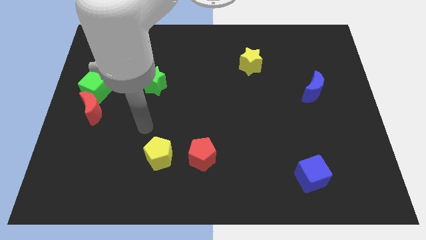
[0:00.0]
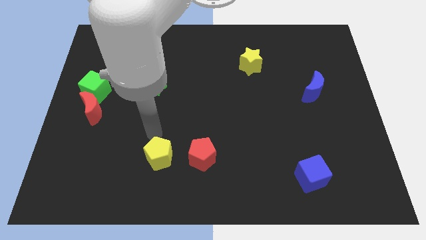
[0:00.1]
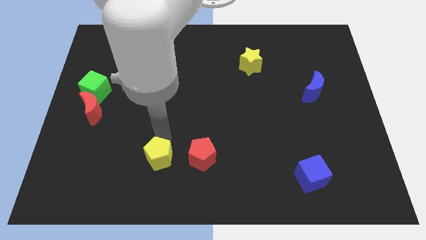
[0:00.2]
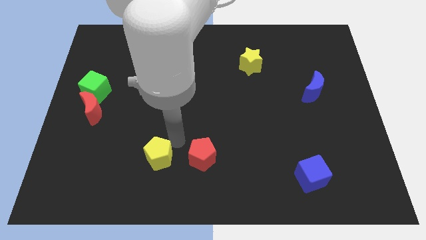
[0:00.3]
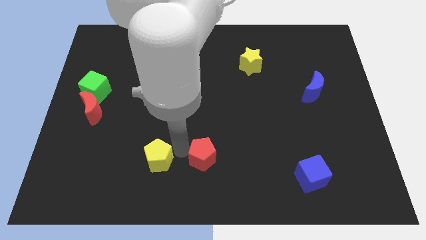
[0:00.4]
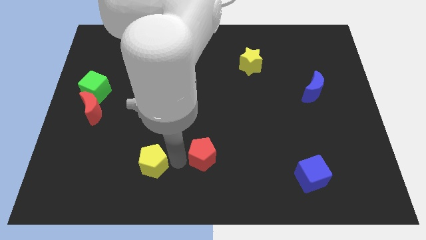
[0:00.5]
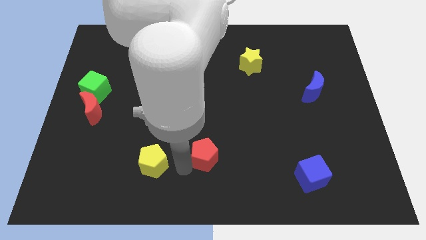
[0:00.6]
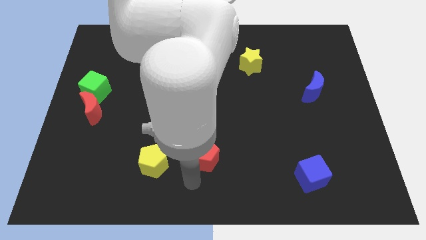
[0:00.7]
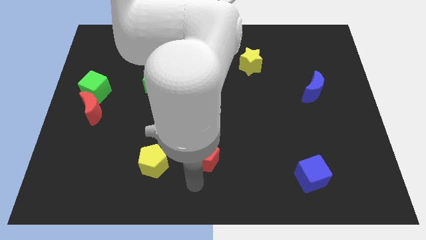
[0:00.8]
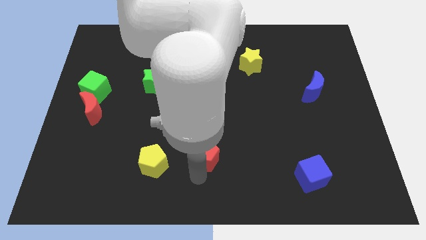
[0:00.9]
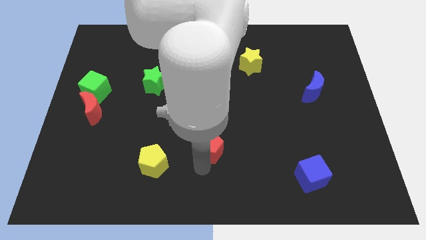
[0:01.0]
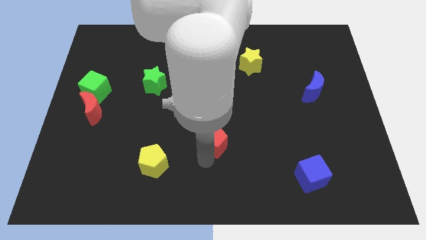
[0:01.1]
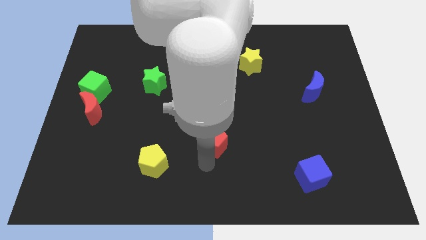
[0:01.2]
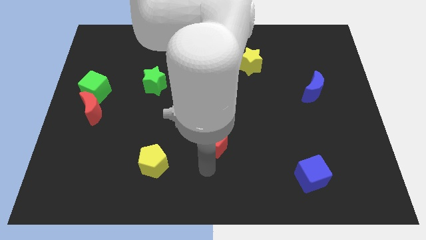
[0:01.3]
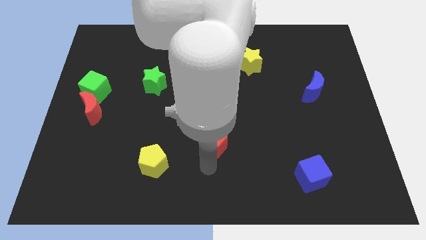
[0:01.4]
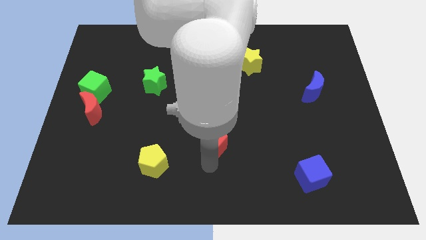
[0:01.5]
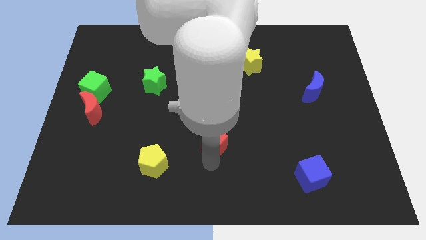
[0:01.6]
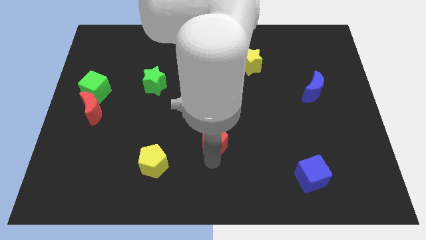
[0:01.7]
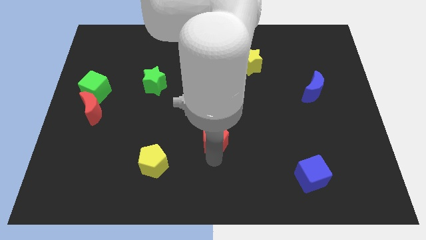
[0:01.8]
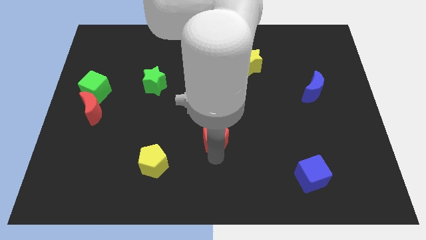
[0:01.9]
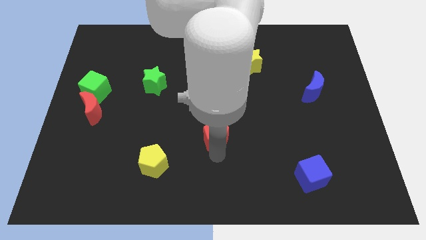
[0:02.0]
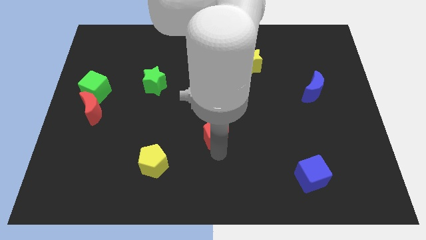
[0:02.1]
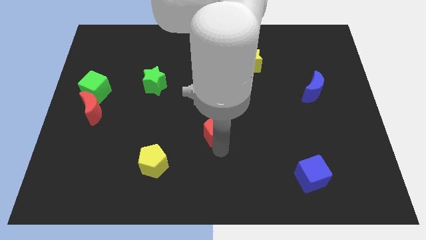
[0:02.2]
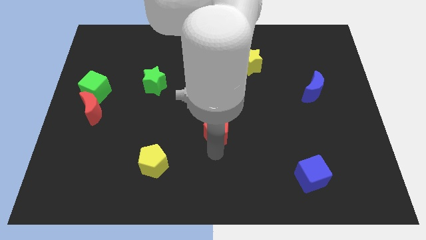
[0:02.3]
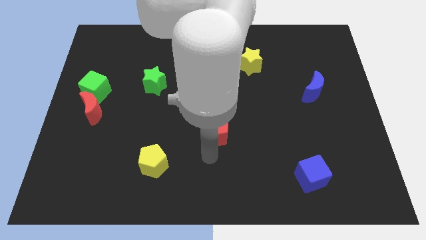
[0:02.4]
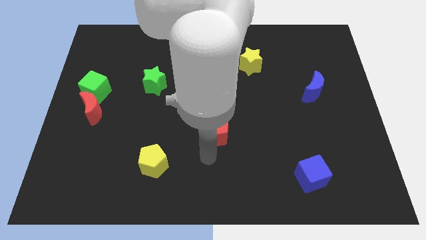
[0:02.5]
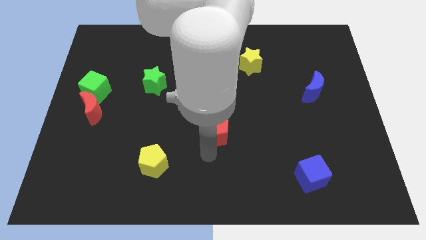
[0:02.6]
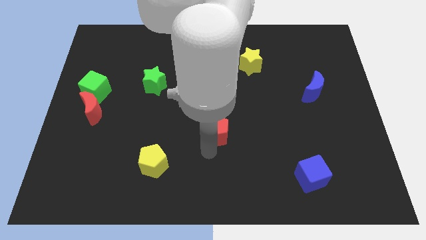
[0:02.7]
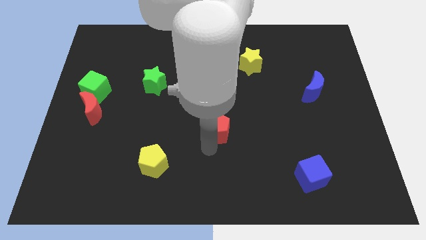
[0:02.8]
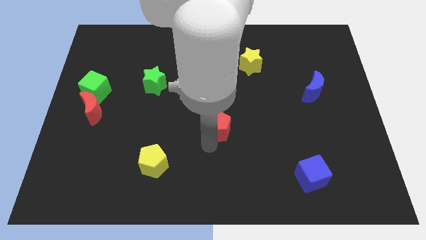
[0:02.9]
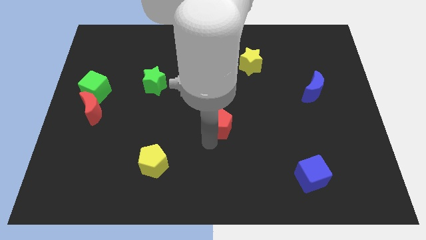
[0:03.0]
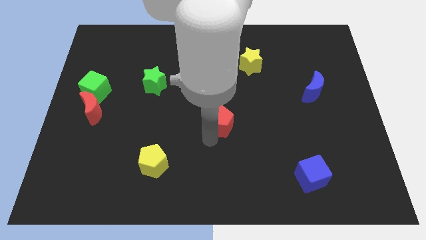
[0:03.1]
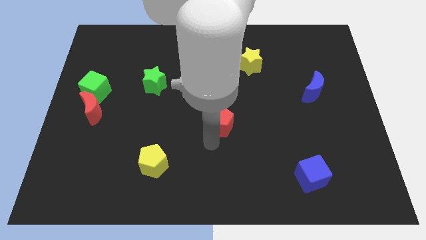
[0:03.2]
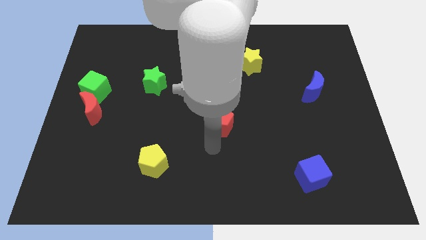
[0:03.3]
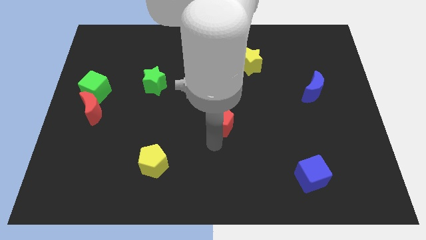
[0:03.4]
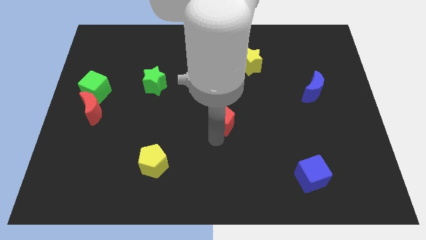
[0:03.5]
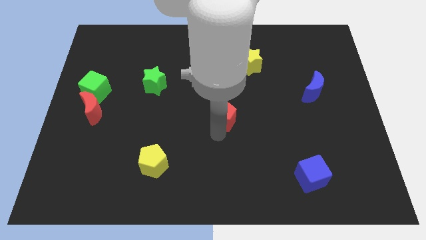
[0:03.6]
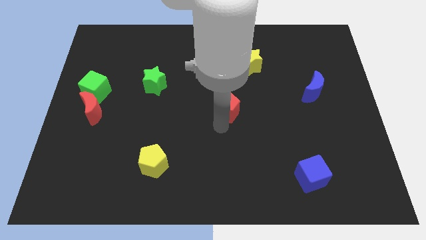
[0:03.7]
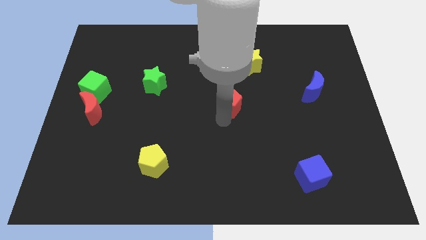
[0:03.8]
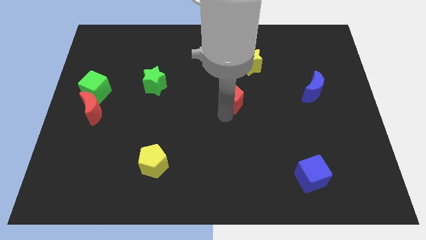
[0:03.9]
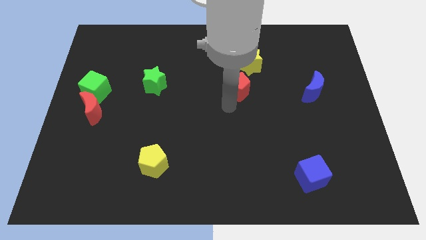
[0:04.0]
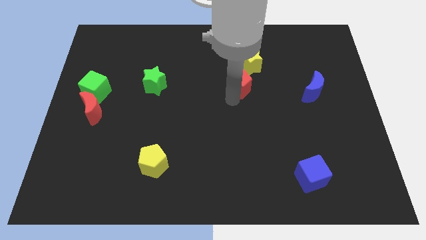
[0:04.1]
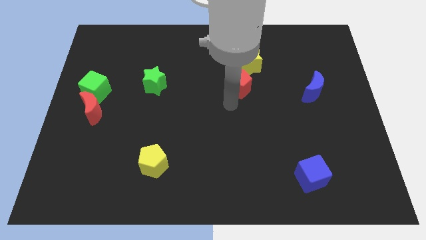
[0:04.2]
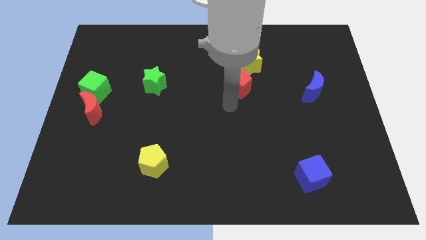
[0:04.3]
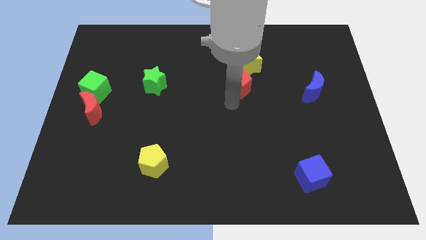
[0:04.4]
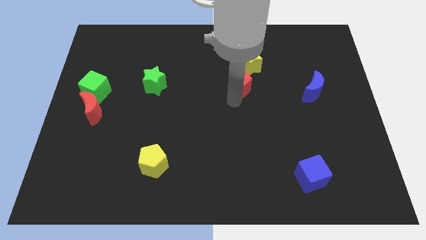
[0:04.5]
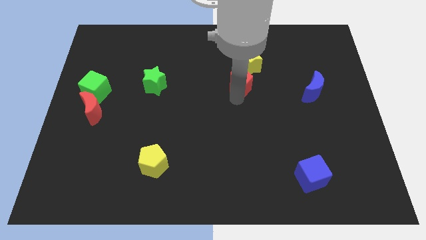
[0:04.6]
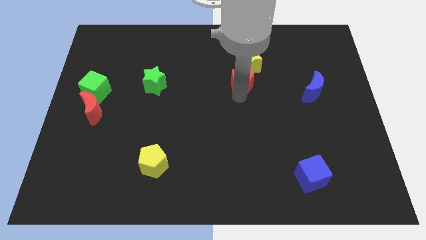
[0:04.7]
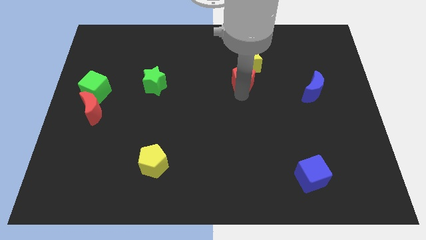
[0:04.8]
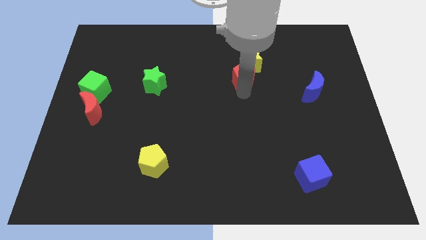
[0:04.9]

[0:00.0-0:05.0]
put the red pentagon next to the yellow star

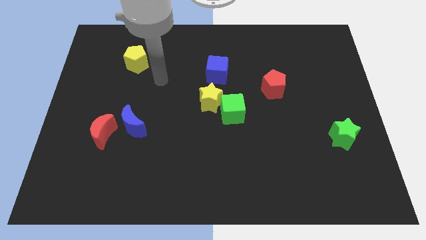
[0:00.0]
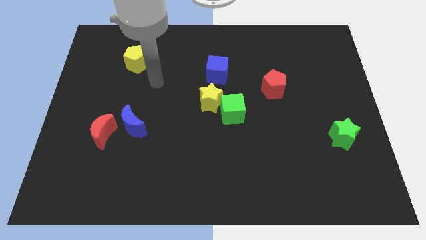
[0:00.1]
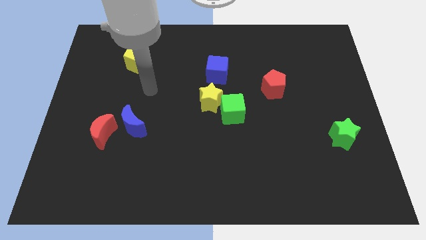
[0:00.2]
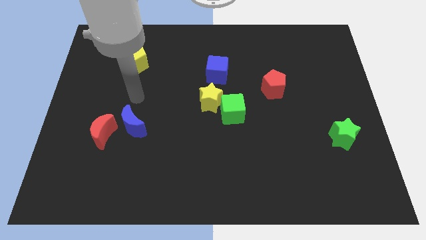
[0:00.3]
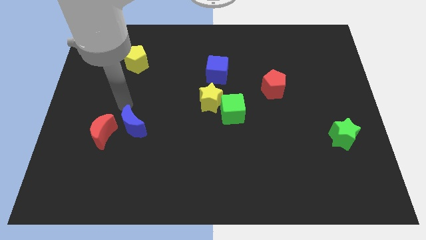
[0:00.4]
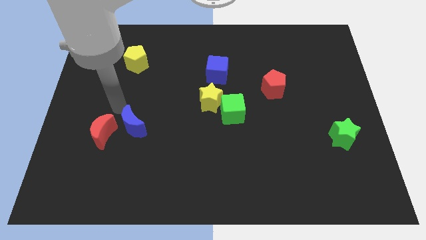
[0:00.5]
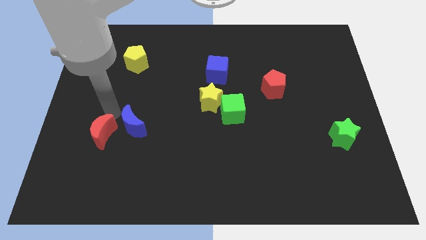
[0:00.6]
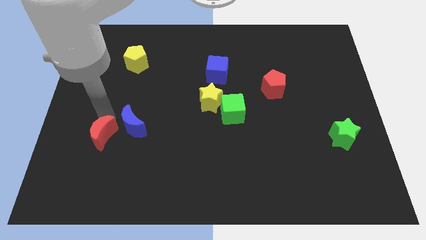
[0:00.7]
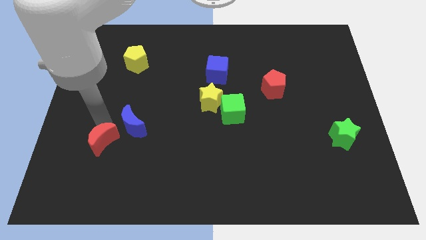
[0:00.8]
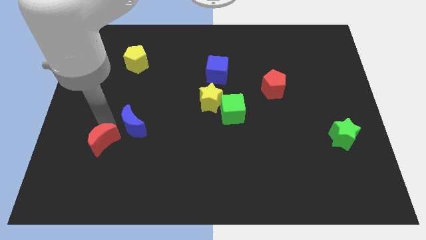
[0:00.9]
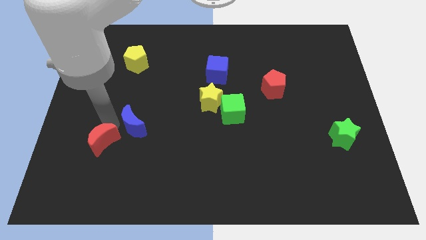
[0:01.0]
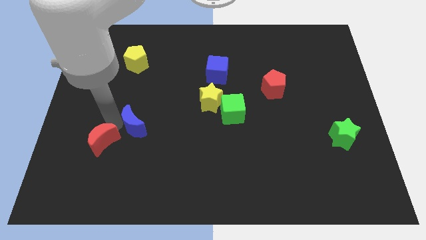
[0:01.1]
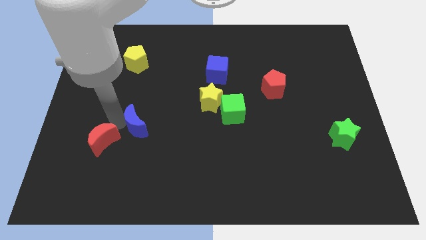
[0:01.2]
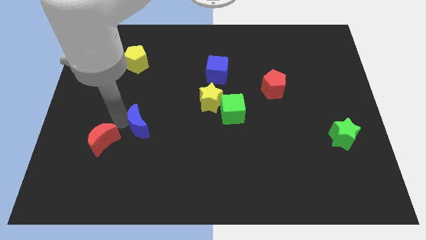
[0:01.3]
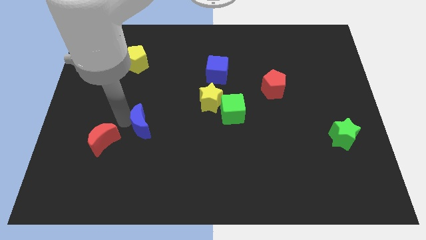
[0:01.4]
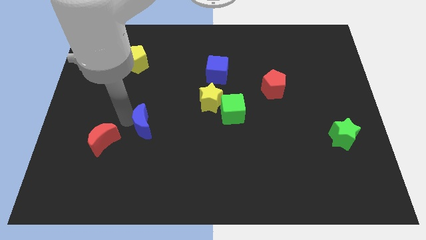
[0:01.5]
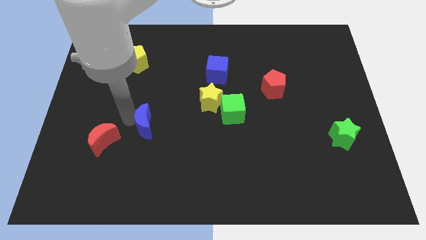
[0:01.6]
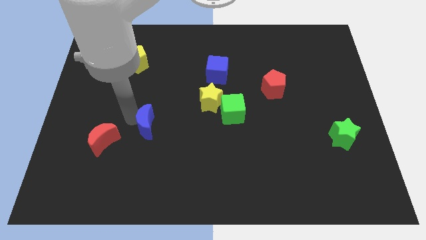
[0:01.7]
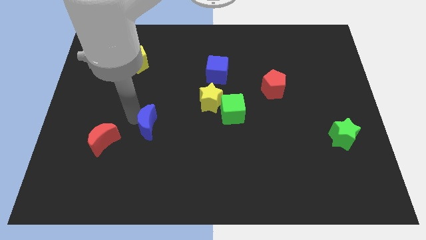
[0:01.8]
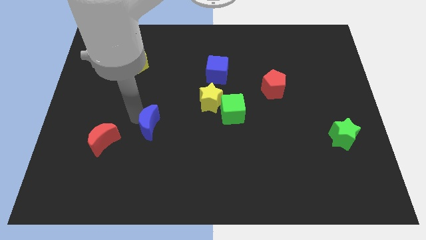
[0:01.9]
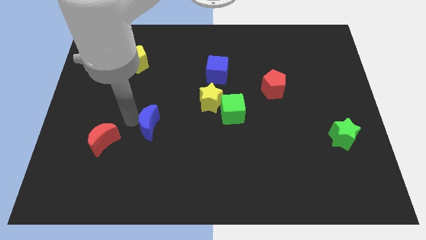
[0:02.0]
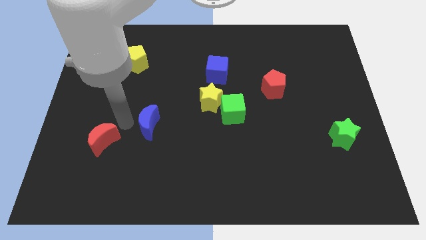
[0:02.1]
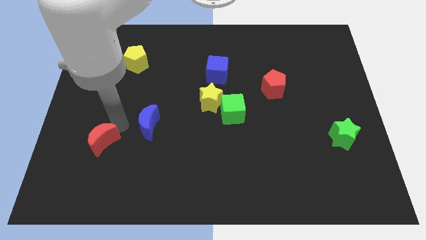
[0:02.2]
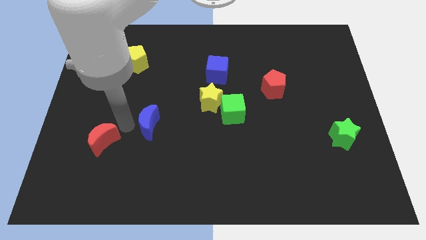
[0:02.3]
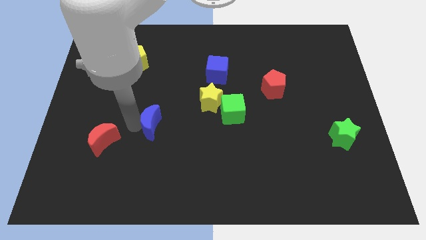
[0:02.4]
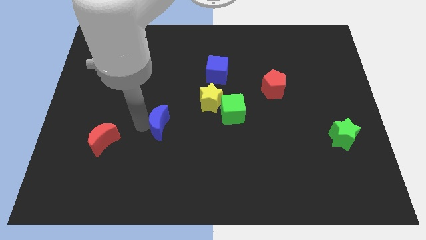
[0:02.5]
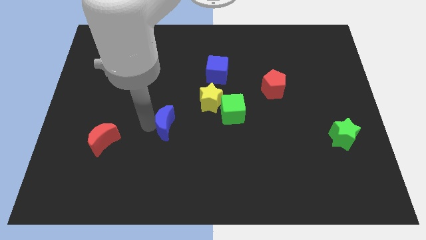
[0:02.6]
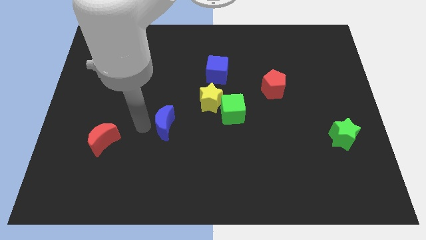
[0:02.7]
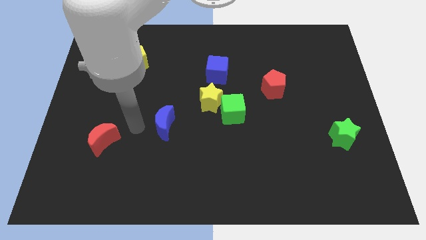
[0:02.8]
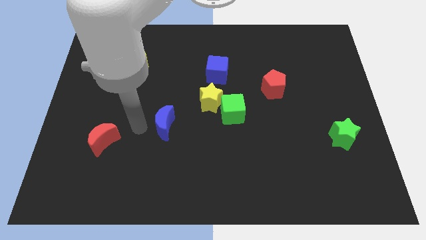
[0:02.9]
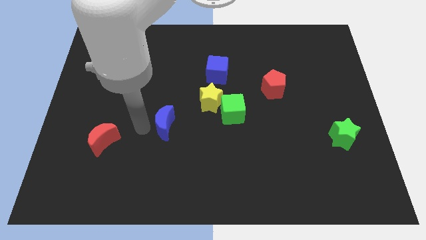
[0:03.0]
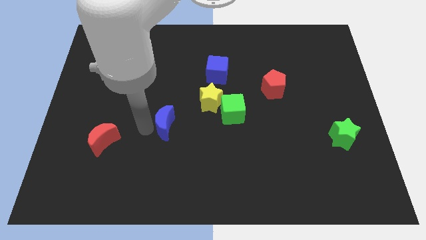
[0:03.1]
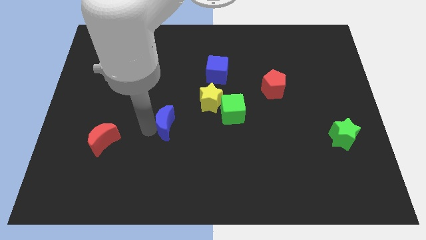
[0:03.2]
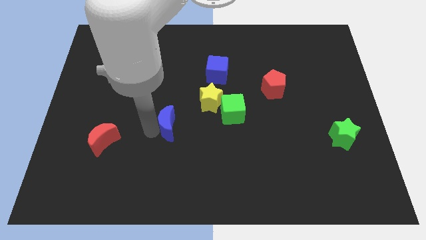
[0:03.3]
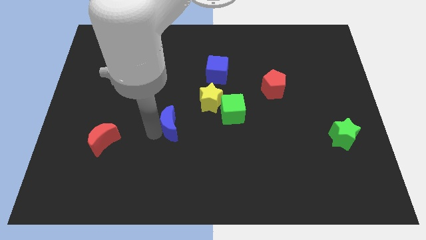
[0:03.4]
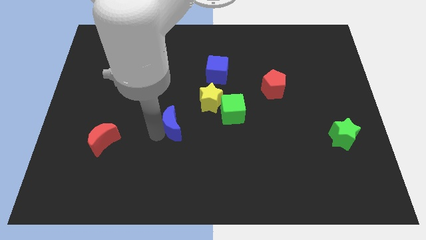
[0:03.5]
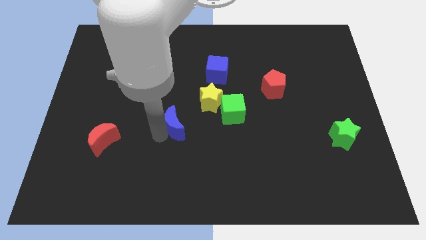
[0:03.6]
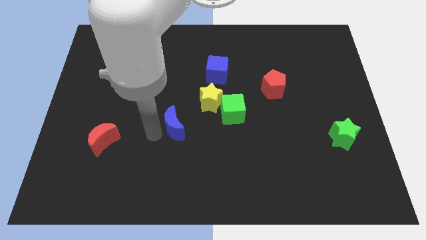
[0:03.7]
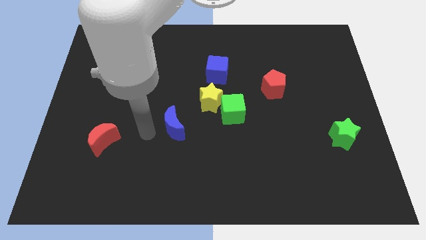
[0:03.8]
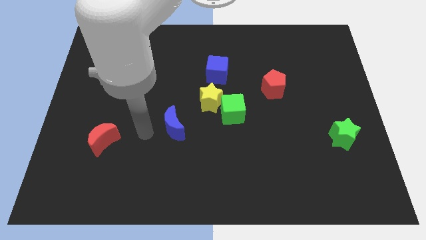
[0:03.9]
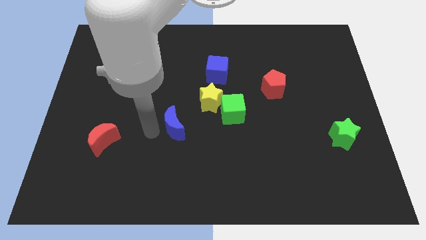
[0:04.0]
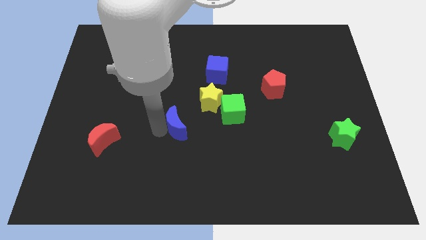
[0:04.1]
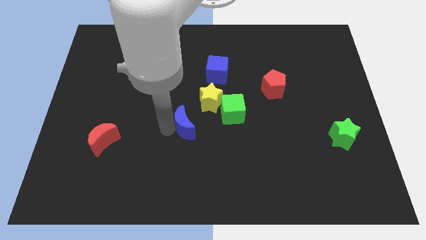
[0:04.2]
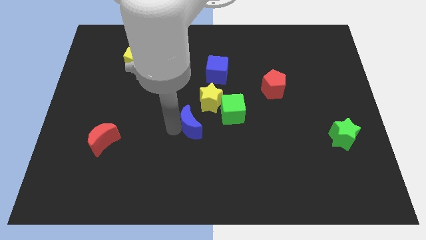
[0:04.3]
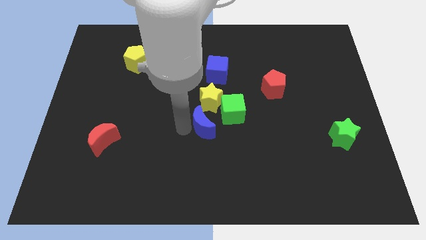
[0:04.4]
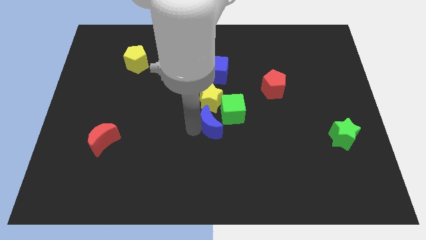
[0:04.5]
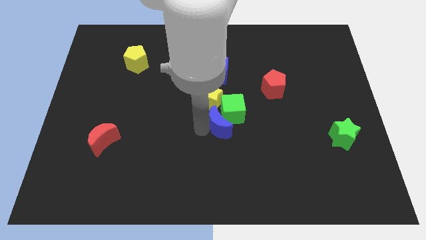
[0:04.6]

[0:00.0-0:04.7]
move the blue moon towards the green cube
